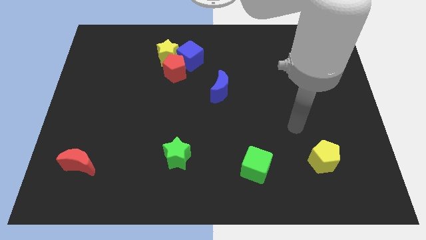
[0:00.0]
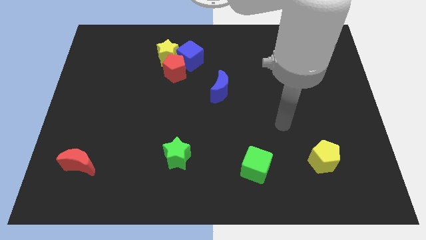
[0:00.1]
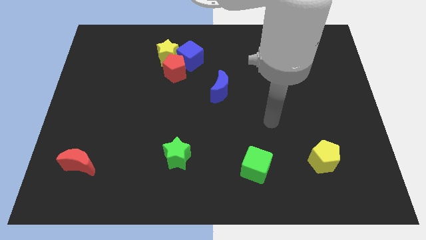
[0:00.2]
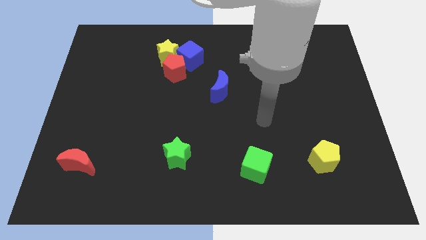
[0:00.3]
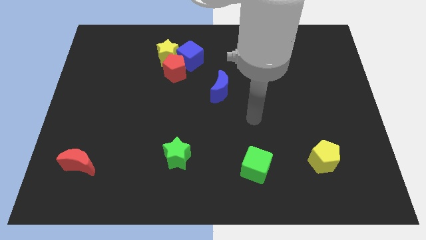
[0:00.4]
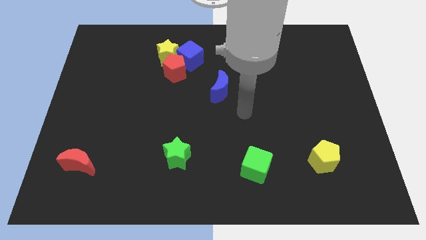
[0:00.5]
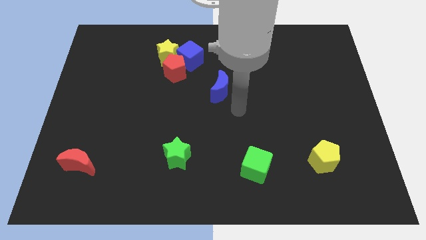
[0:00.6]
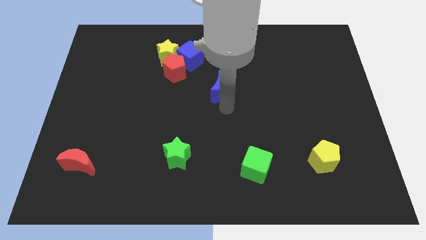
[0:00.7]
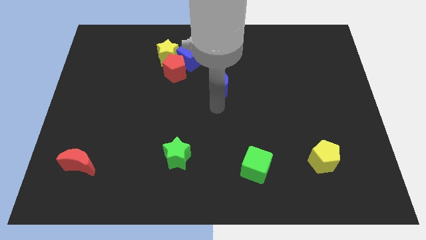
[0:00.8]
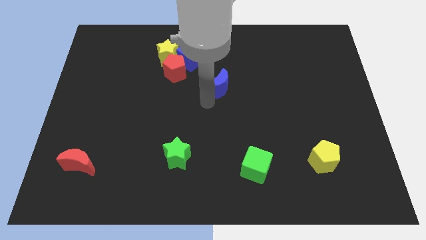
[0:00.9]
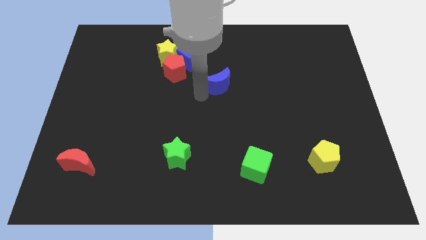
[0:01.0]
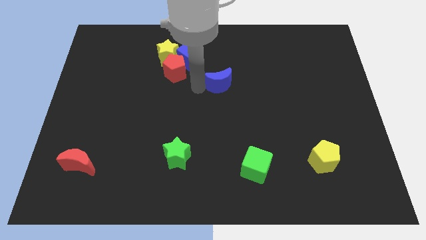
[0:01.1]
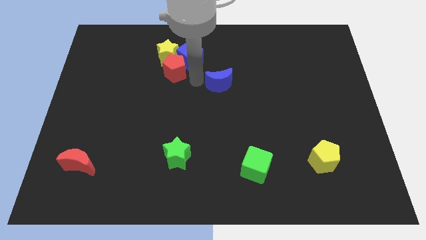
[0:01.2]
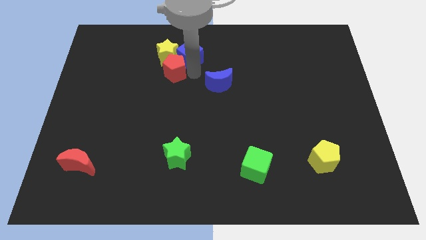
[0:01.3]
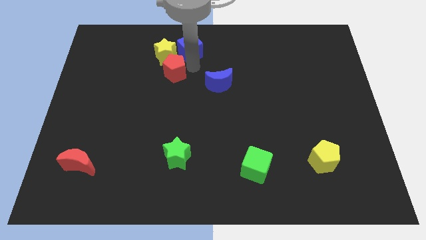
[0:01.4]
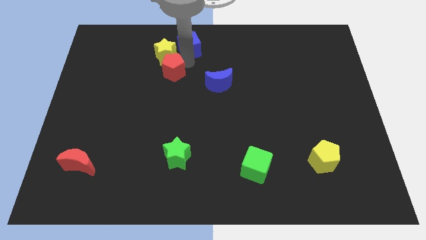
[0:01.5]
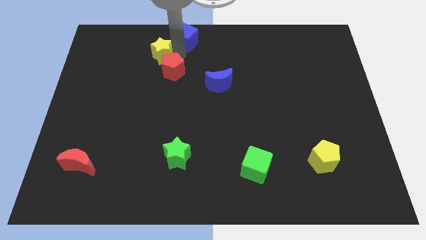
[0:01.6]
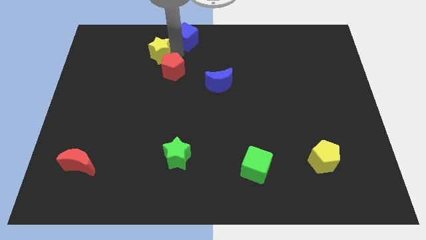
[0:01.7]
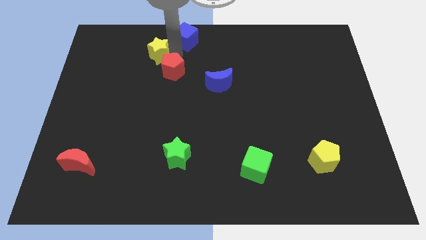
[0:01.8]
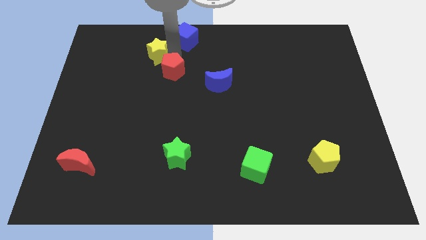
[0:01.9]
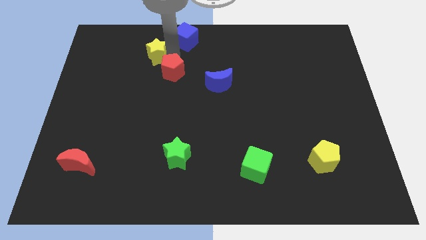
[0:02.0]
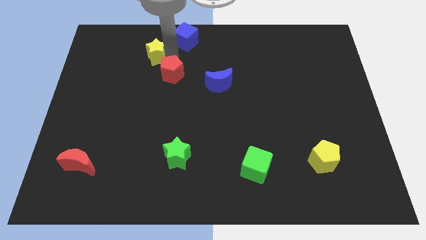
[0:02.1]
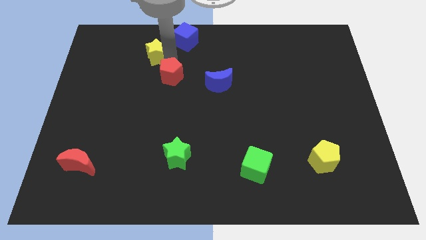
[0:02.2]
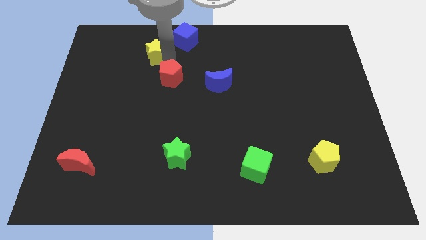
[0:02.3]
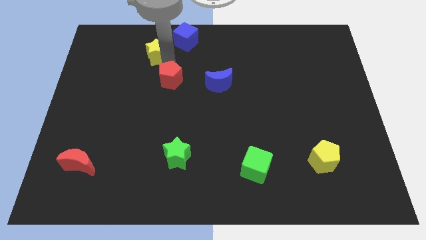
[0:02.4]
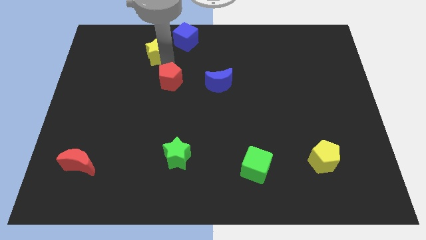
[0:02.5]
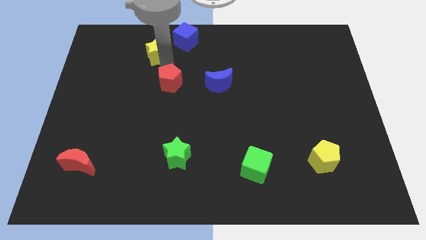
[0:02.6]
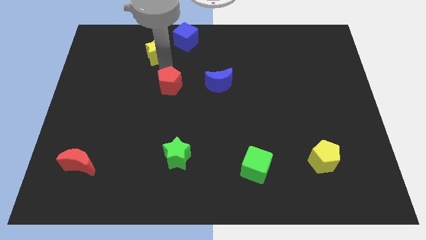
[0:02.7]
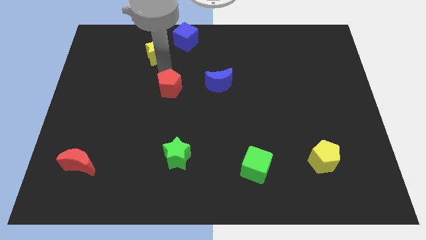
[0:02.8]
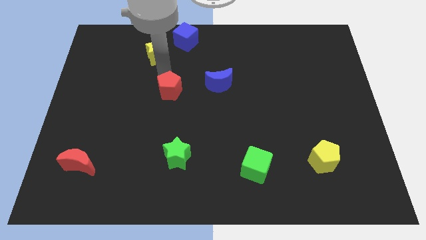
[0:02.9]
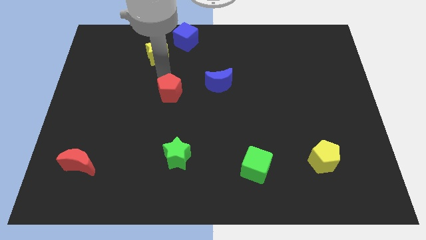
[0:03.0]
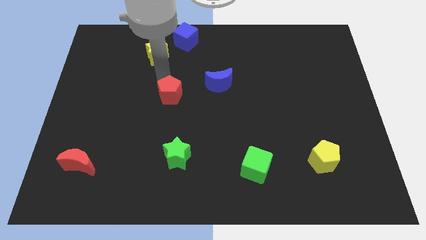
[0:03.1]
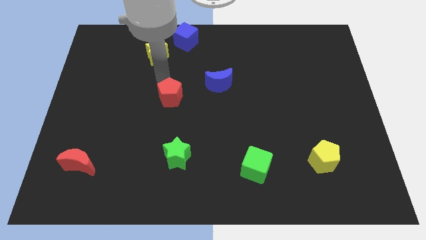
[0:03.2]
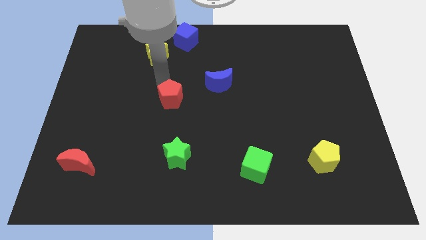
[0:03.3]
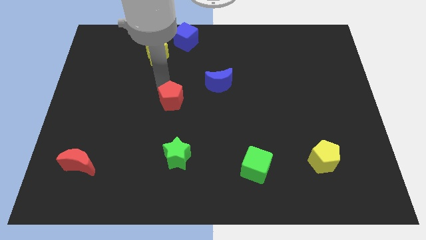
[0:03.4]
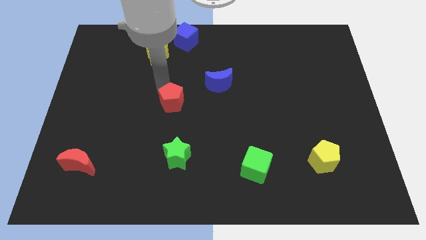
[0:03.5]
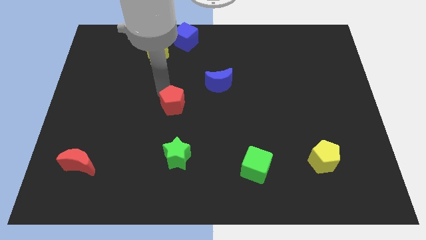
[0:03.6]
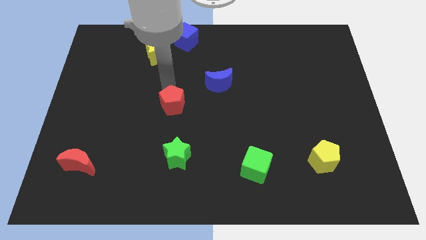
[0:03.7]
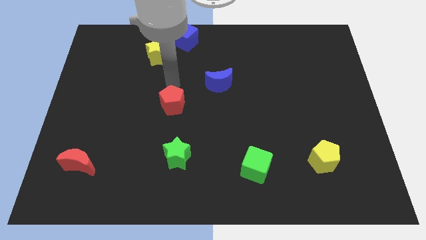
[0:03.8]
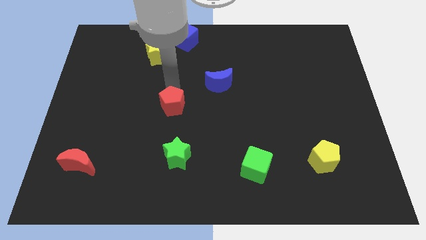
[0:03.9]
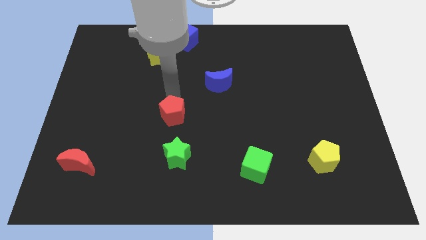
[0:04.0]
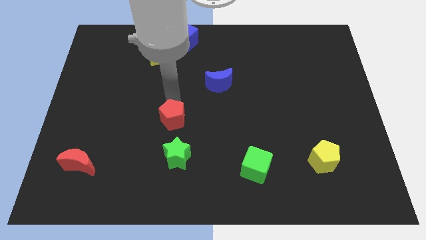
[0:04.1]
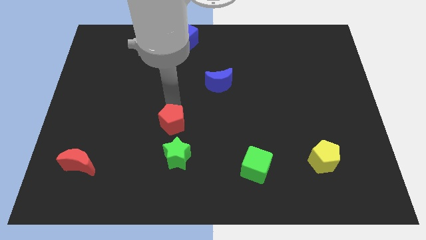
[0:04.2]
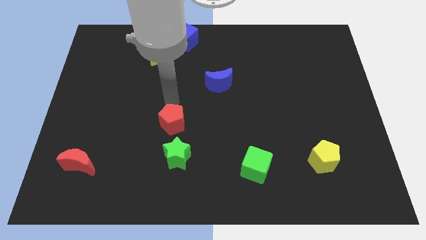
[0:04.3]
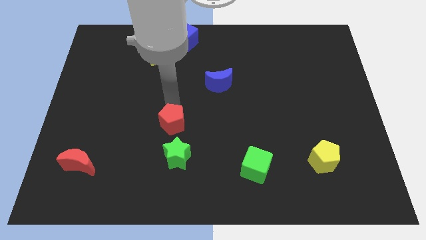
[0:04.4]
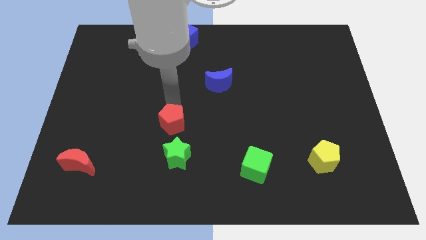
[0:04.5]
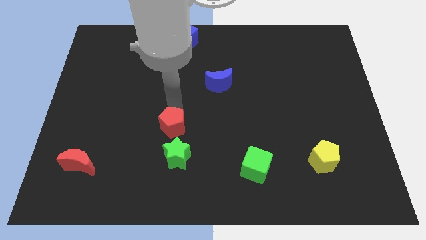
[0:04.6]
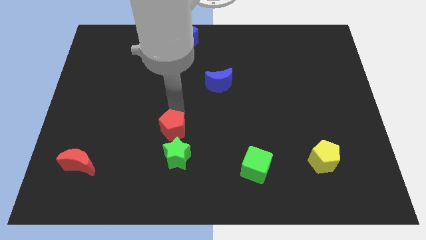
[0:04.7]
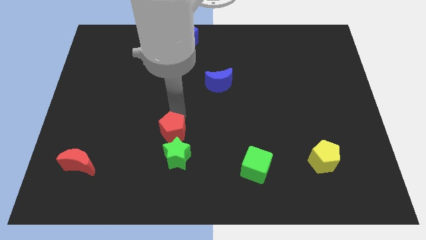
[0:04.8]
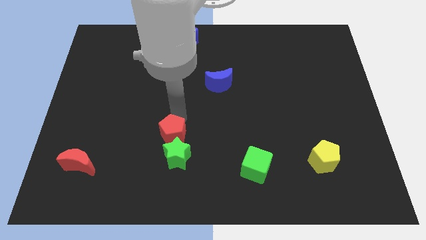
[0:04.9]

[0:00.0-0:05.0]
slide the red pentagon towards the green star
